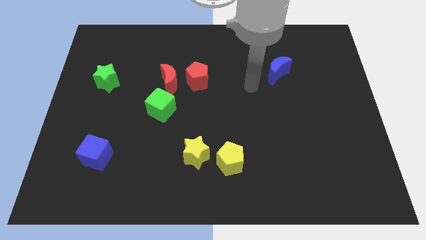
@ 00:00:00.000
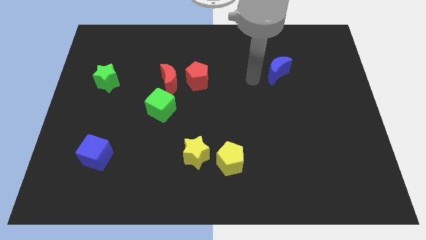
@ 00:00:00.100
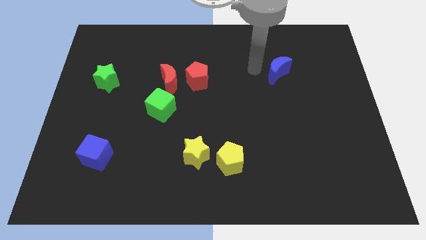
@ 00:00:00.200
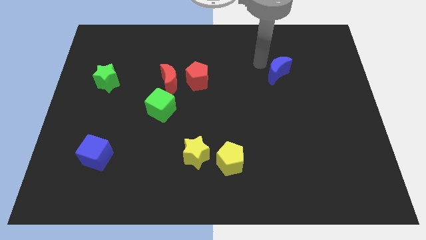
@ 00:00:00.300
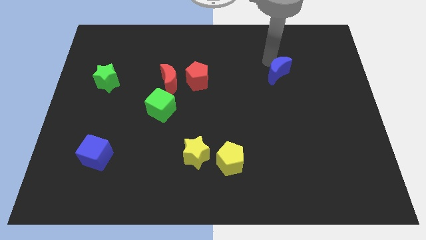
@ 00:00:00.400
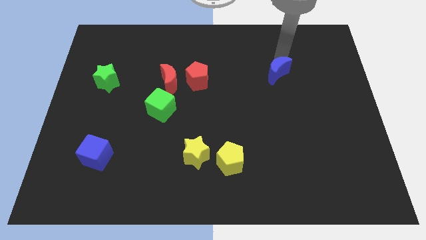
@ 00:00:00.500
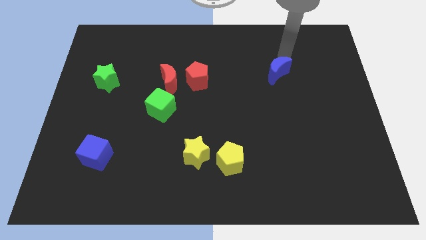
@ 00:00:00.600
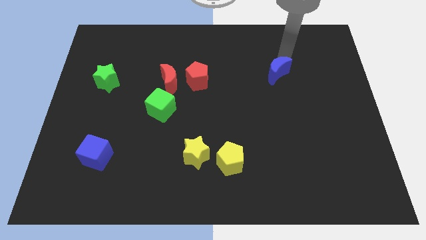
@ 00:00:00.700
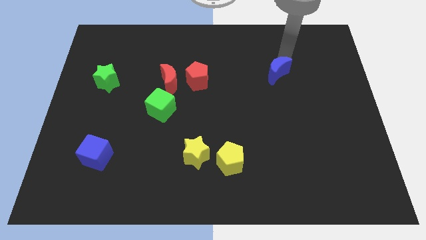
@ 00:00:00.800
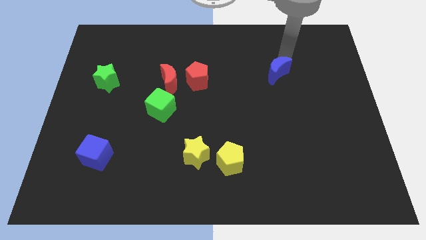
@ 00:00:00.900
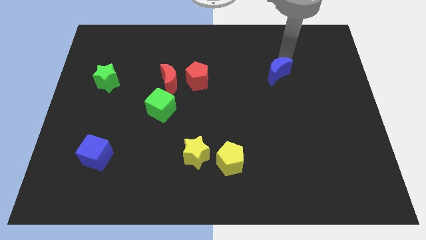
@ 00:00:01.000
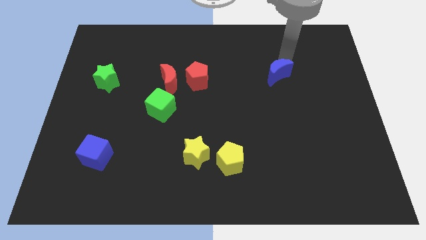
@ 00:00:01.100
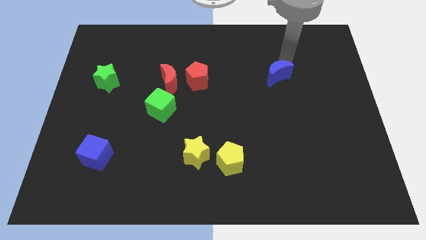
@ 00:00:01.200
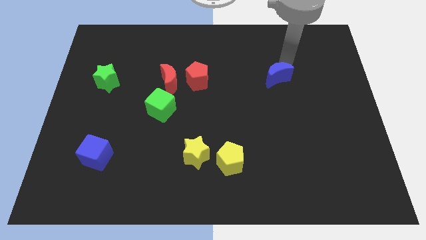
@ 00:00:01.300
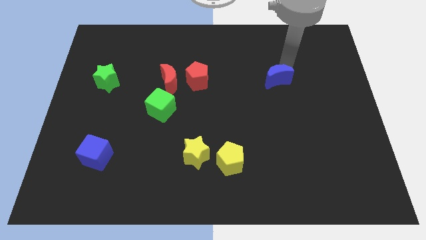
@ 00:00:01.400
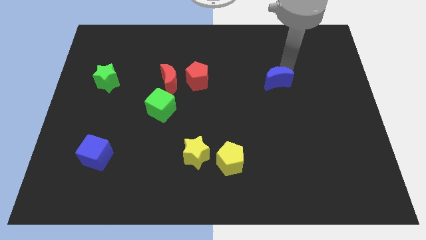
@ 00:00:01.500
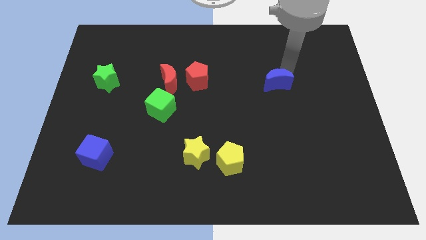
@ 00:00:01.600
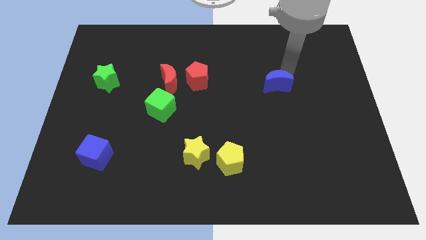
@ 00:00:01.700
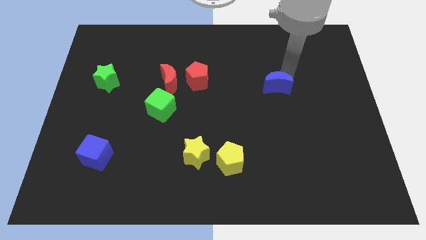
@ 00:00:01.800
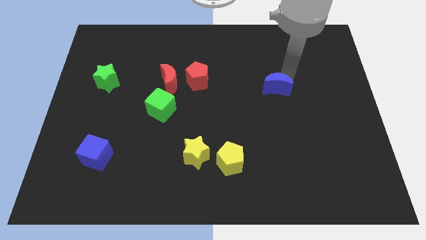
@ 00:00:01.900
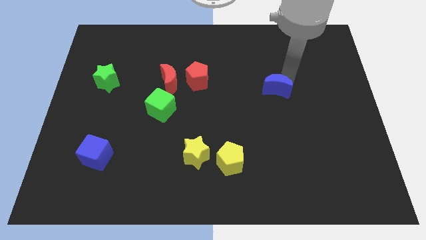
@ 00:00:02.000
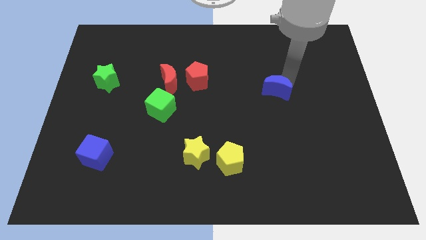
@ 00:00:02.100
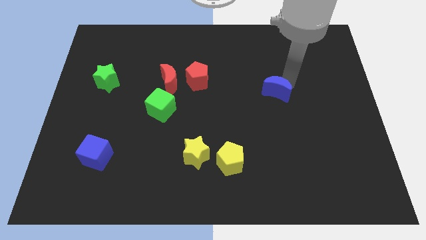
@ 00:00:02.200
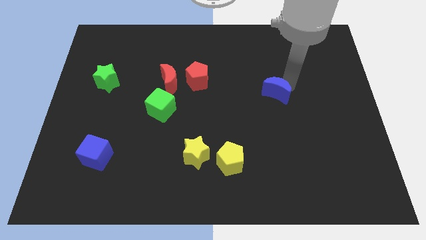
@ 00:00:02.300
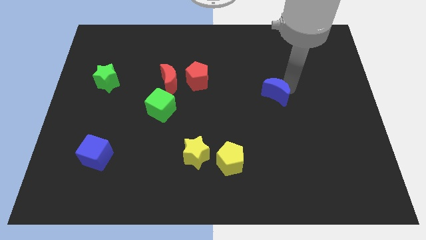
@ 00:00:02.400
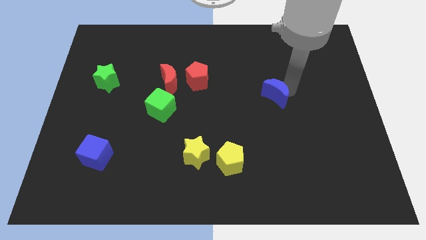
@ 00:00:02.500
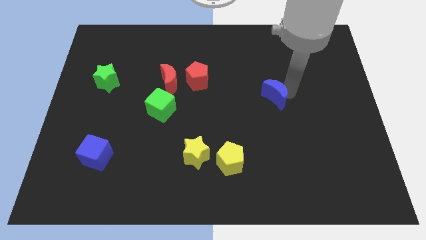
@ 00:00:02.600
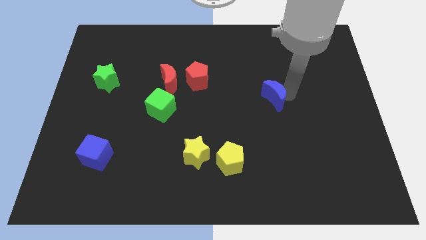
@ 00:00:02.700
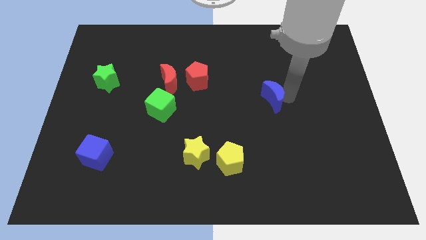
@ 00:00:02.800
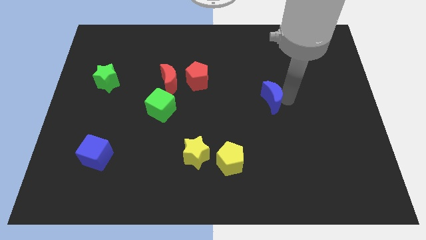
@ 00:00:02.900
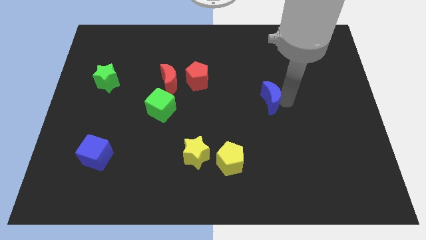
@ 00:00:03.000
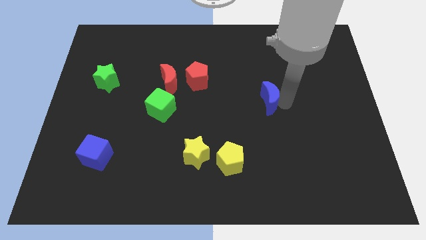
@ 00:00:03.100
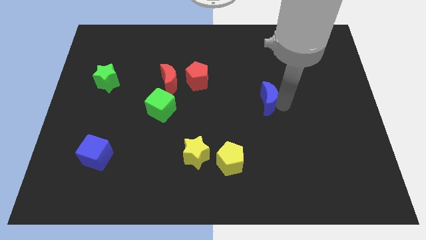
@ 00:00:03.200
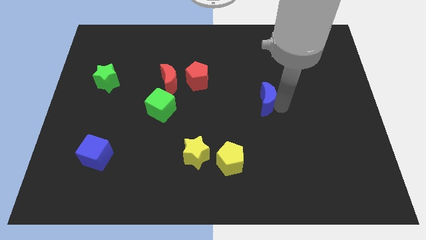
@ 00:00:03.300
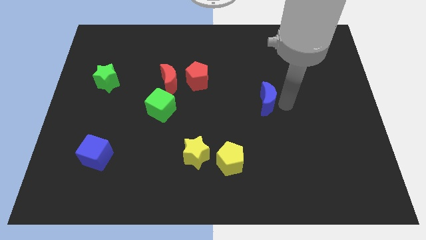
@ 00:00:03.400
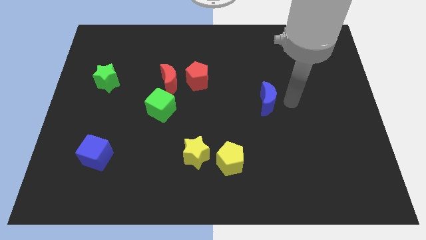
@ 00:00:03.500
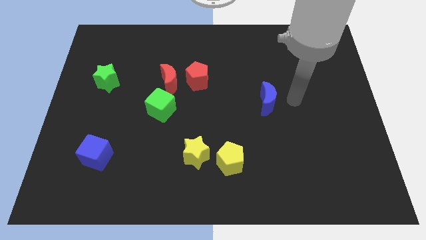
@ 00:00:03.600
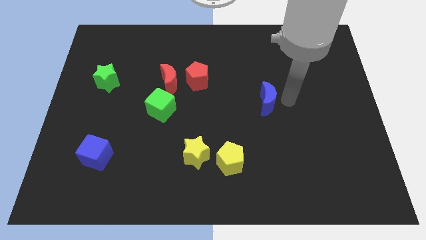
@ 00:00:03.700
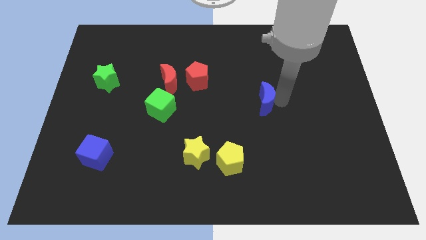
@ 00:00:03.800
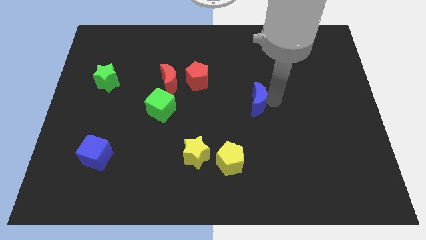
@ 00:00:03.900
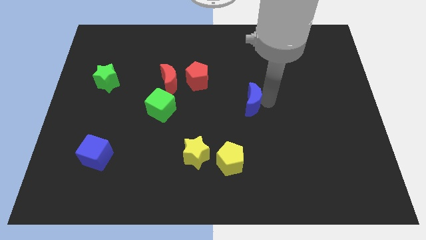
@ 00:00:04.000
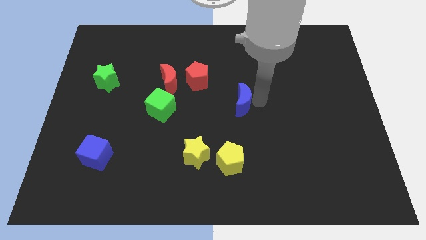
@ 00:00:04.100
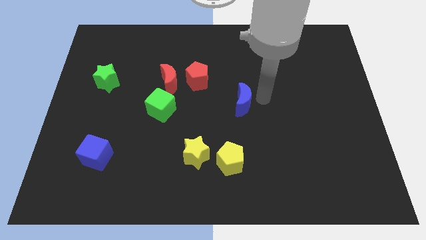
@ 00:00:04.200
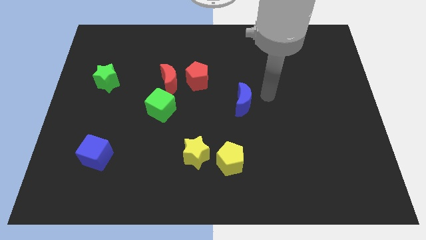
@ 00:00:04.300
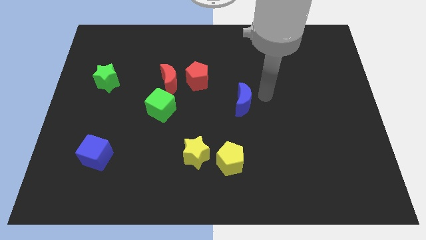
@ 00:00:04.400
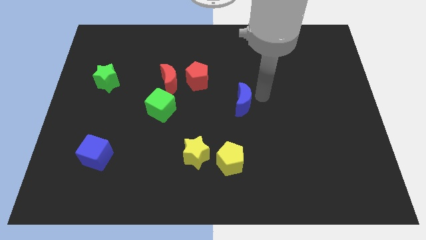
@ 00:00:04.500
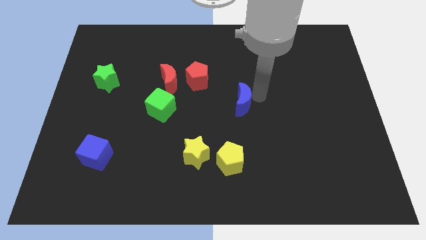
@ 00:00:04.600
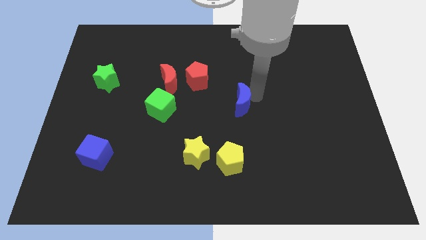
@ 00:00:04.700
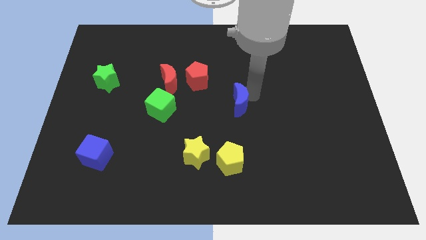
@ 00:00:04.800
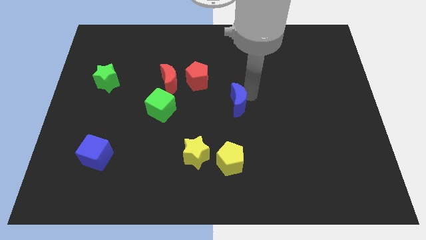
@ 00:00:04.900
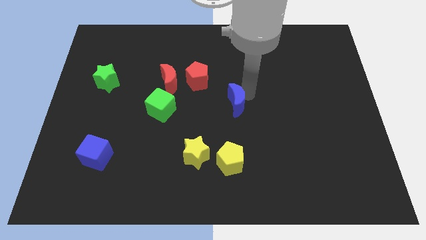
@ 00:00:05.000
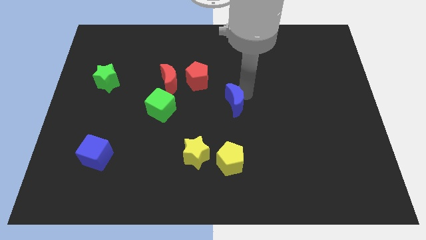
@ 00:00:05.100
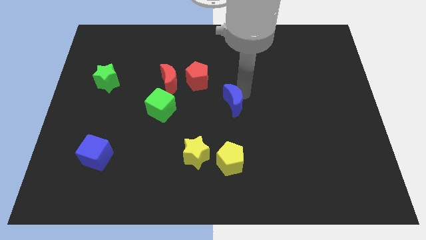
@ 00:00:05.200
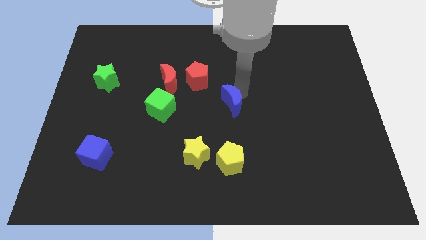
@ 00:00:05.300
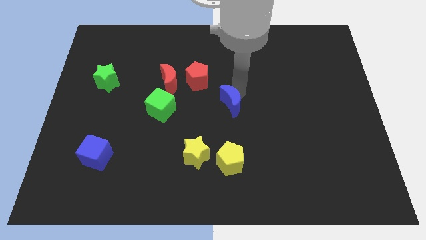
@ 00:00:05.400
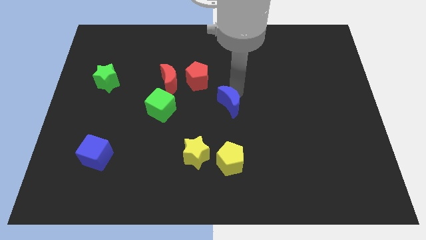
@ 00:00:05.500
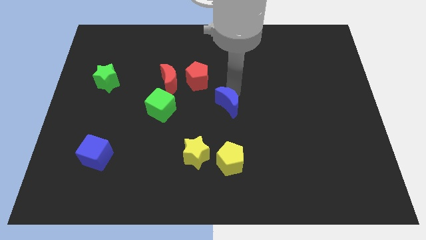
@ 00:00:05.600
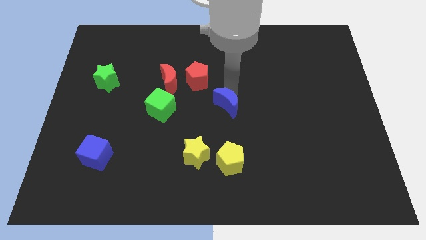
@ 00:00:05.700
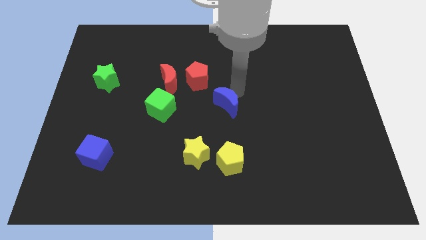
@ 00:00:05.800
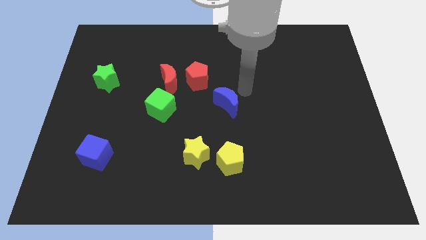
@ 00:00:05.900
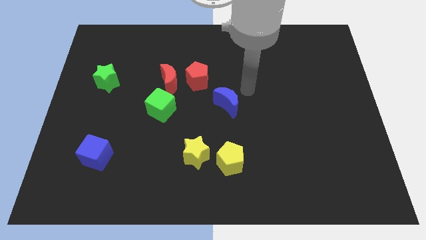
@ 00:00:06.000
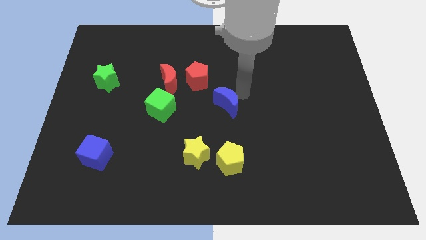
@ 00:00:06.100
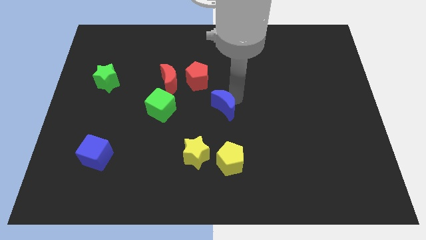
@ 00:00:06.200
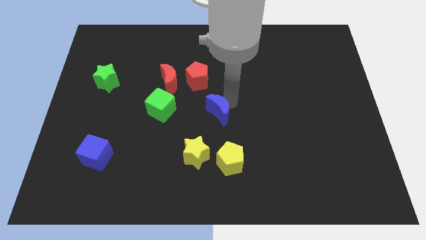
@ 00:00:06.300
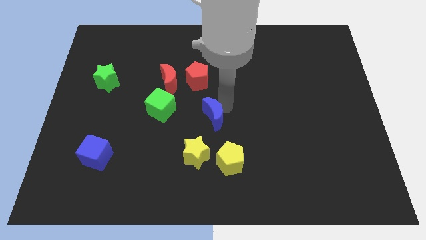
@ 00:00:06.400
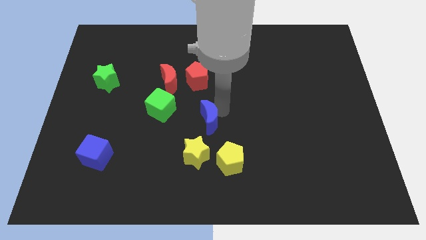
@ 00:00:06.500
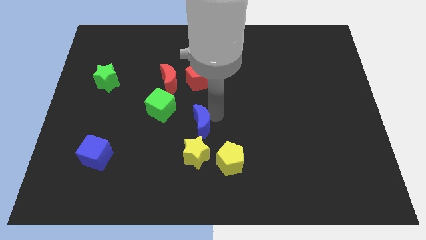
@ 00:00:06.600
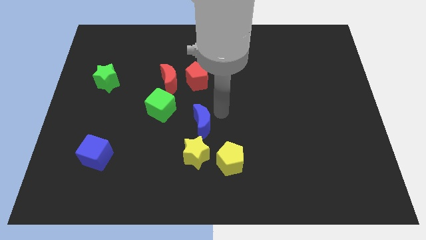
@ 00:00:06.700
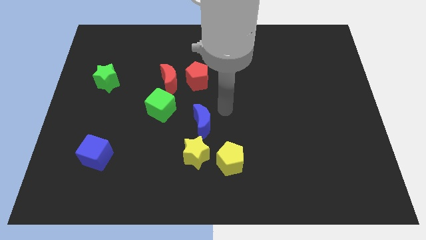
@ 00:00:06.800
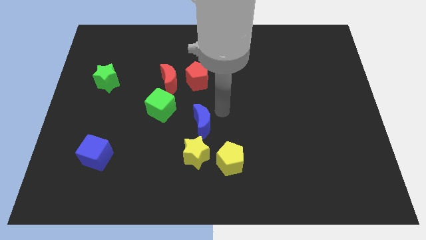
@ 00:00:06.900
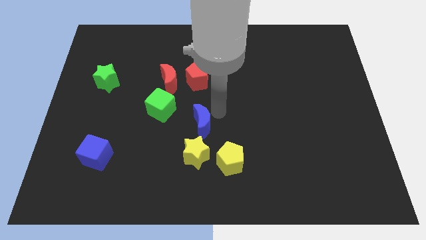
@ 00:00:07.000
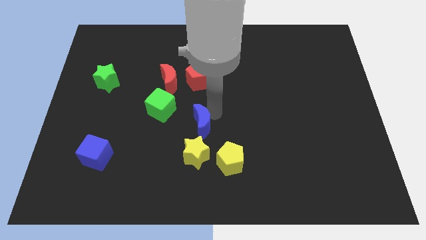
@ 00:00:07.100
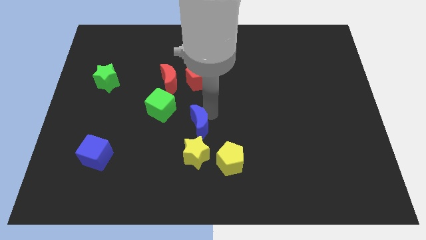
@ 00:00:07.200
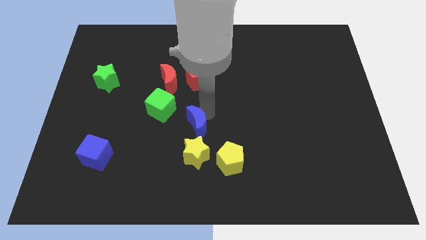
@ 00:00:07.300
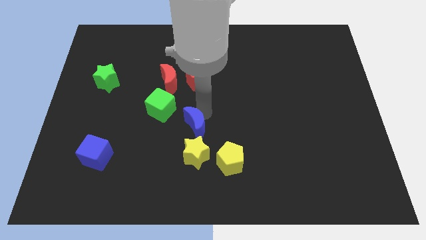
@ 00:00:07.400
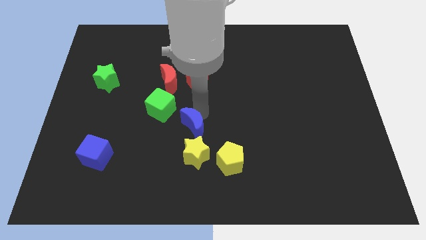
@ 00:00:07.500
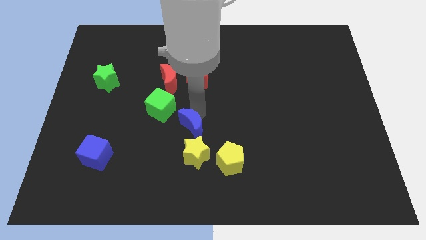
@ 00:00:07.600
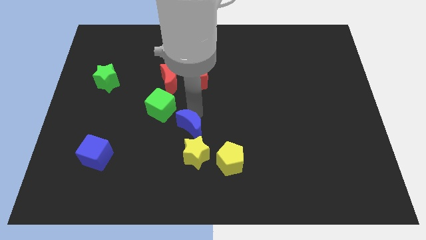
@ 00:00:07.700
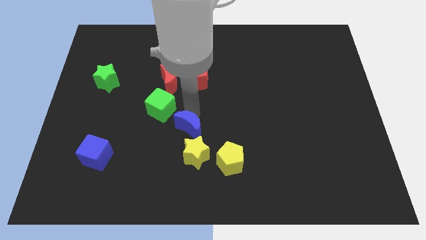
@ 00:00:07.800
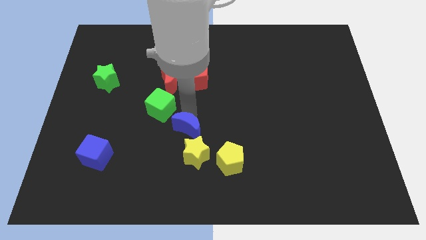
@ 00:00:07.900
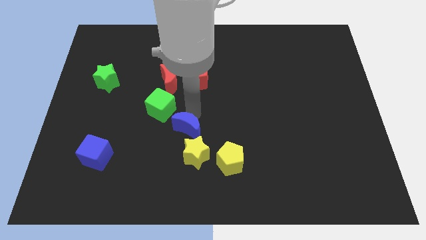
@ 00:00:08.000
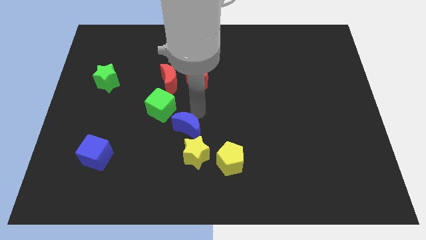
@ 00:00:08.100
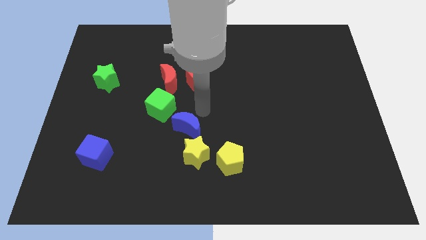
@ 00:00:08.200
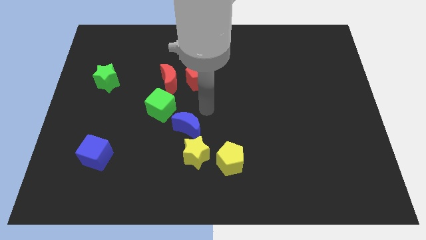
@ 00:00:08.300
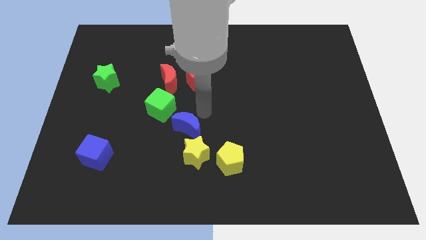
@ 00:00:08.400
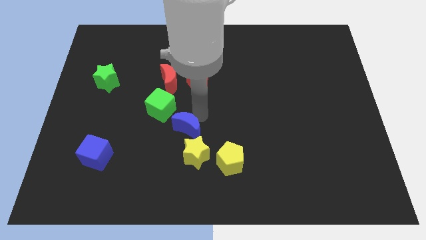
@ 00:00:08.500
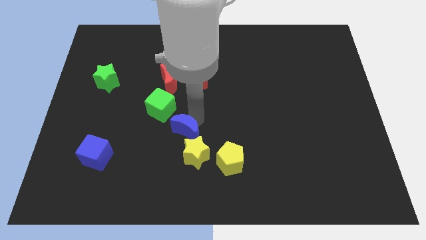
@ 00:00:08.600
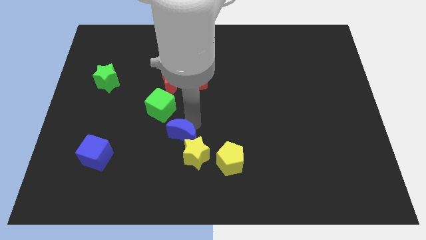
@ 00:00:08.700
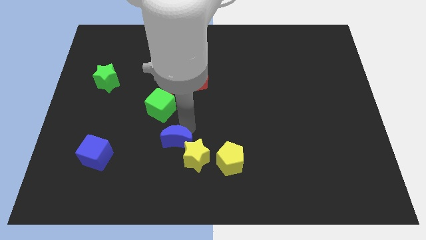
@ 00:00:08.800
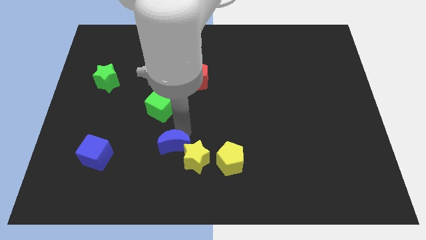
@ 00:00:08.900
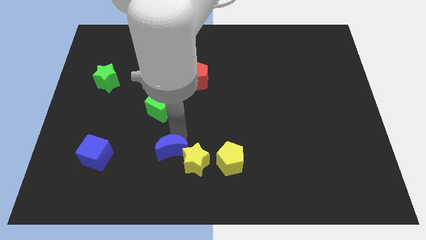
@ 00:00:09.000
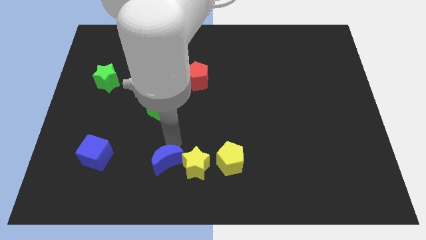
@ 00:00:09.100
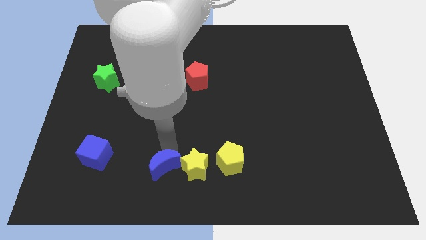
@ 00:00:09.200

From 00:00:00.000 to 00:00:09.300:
put the blue moon diagonally down and to the left of the yellow star
